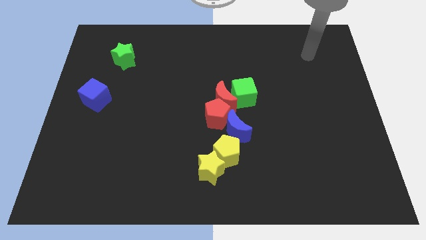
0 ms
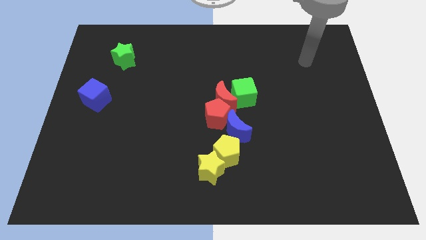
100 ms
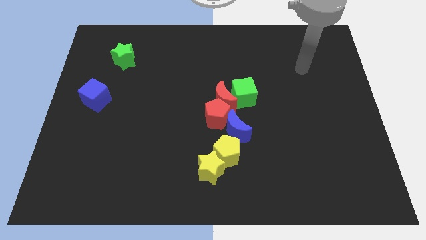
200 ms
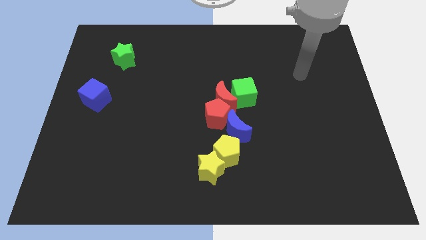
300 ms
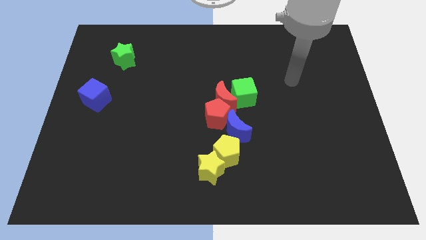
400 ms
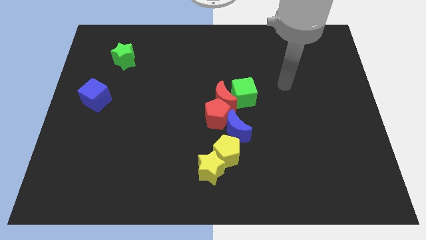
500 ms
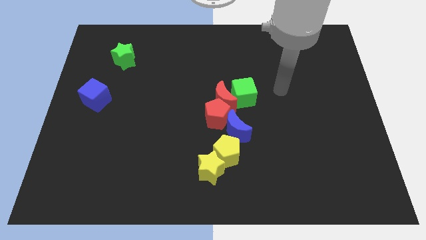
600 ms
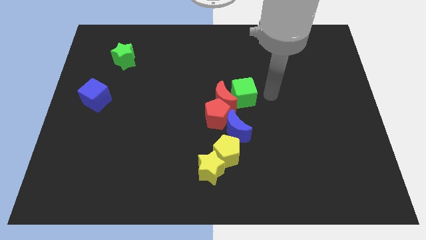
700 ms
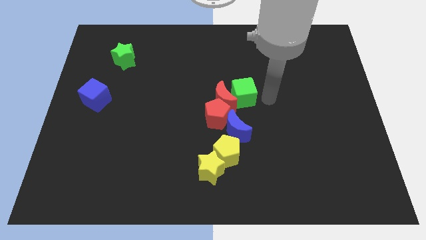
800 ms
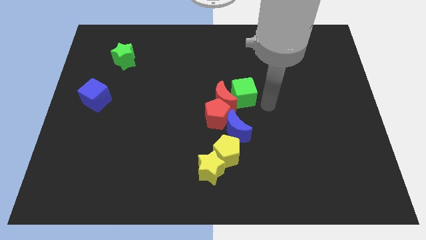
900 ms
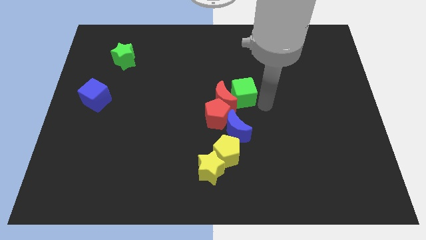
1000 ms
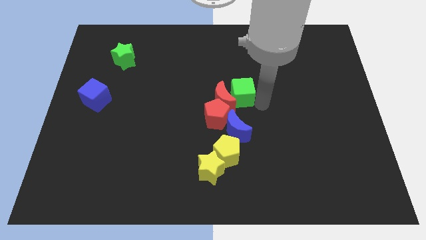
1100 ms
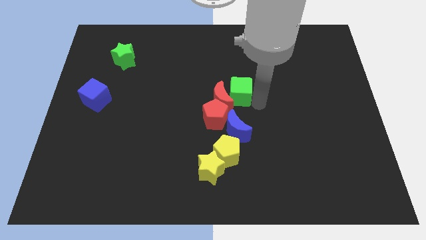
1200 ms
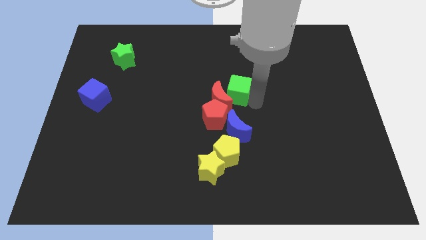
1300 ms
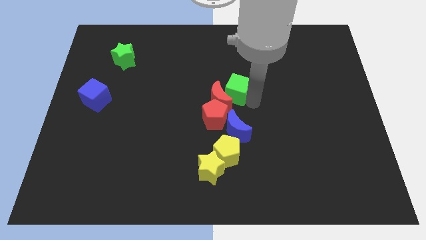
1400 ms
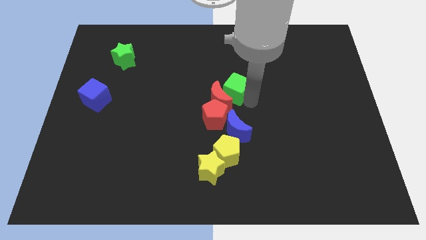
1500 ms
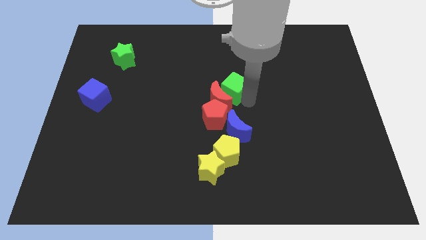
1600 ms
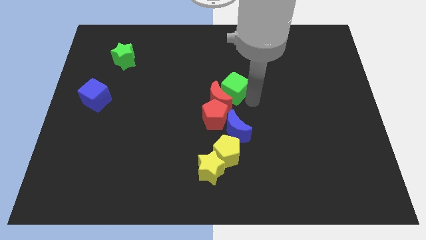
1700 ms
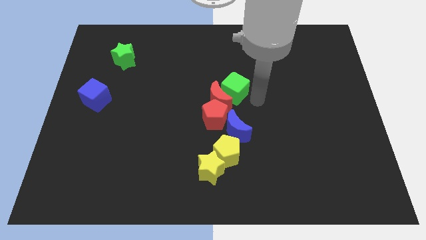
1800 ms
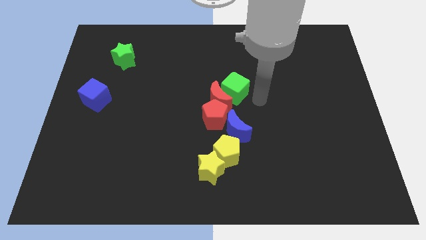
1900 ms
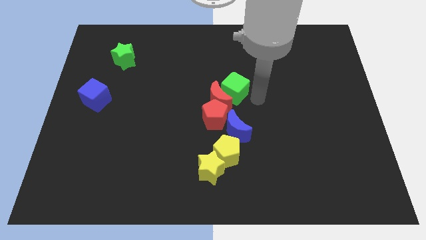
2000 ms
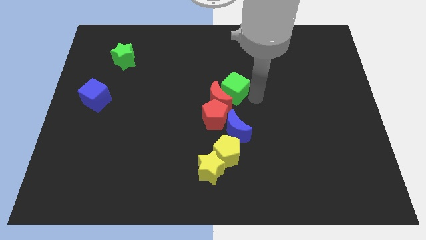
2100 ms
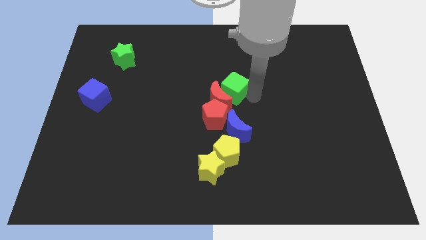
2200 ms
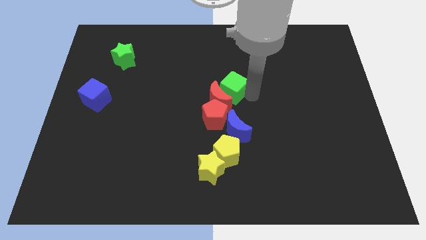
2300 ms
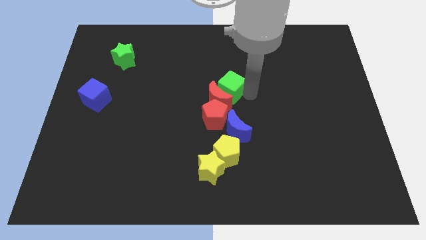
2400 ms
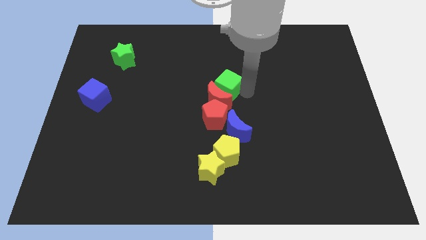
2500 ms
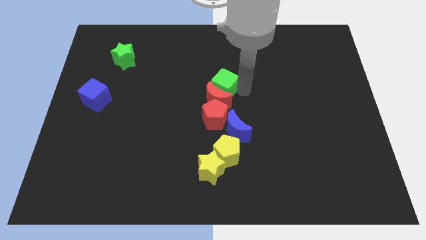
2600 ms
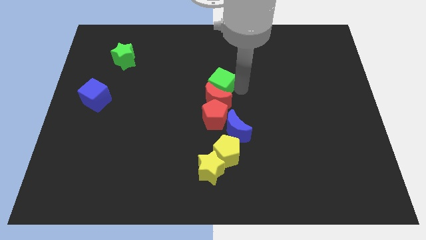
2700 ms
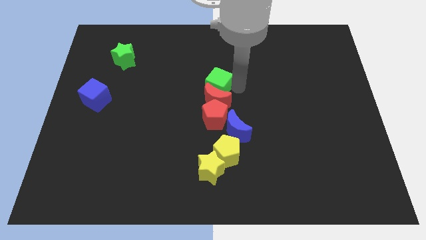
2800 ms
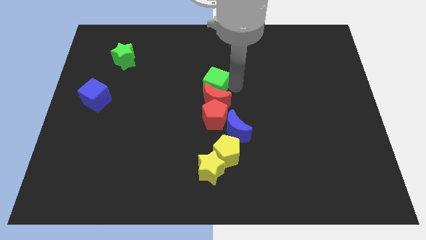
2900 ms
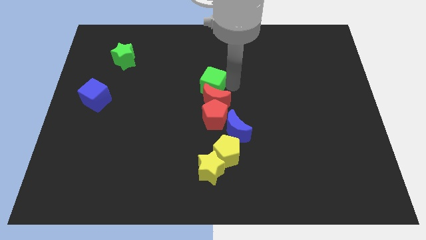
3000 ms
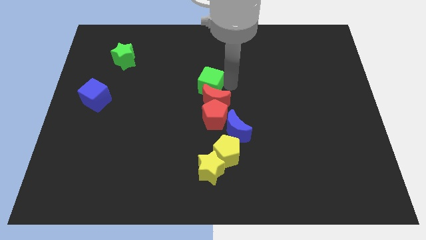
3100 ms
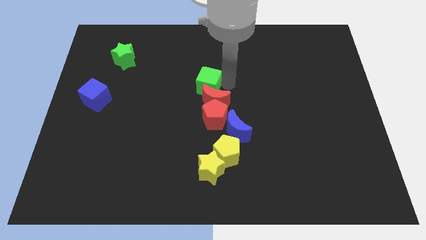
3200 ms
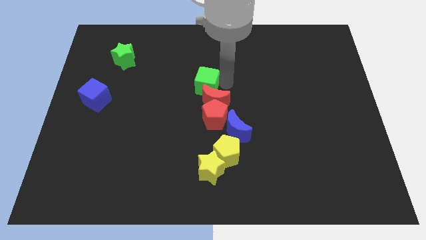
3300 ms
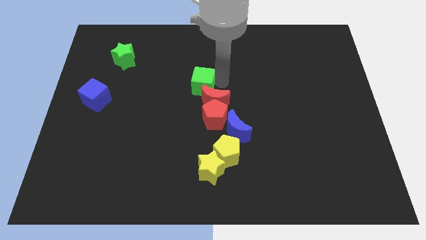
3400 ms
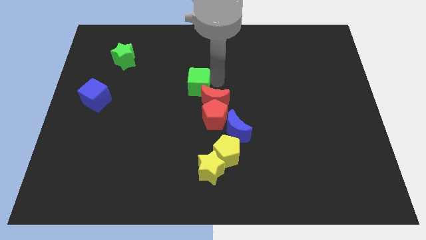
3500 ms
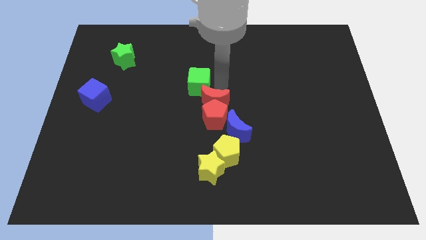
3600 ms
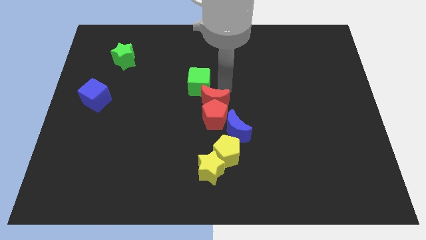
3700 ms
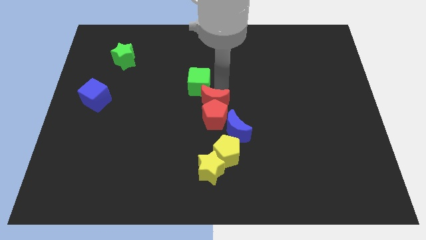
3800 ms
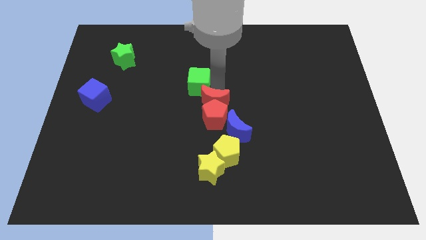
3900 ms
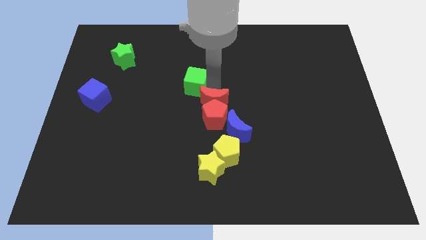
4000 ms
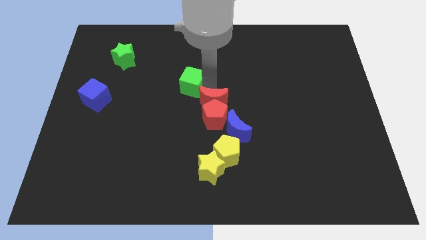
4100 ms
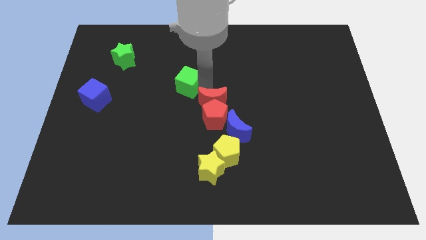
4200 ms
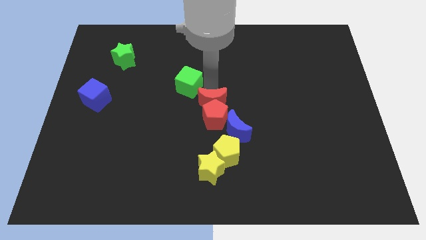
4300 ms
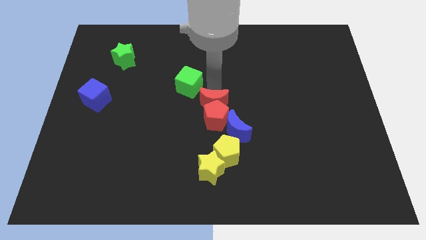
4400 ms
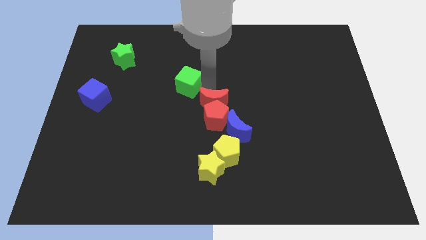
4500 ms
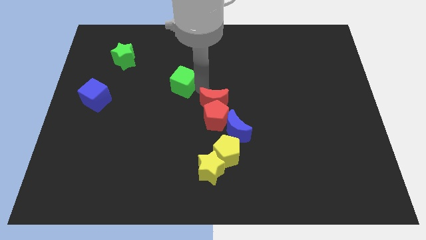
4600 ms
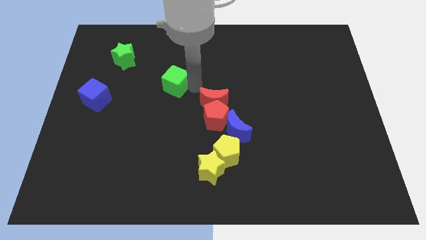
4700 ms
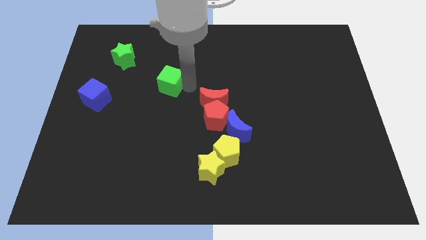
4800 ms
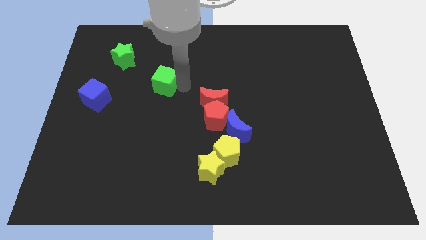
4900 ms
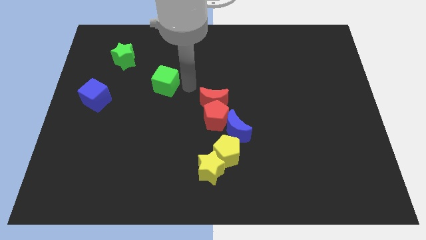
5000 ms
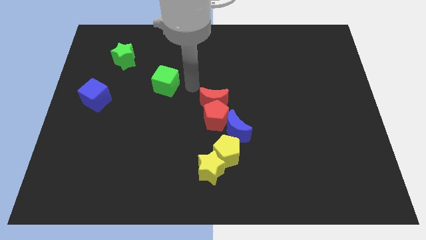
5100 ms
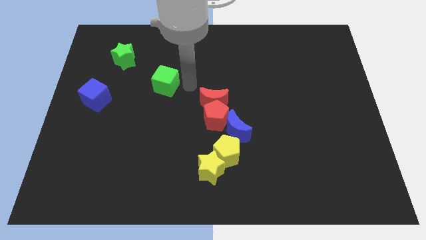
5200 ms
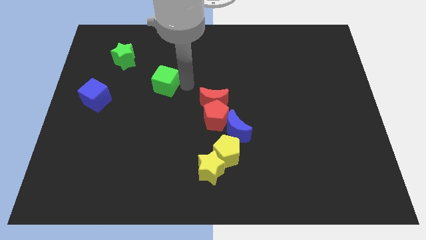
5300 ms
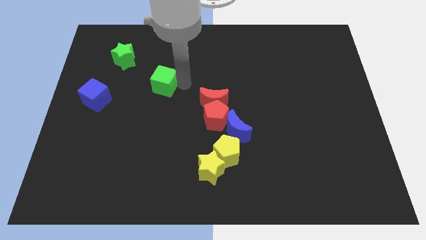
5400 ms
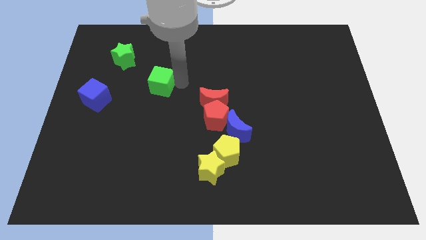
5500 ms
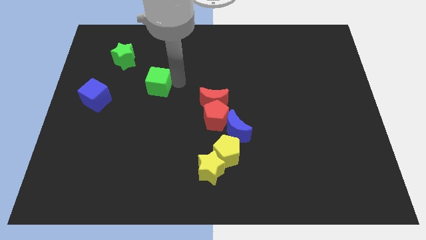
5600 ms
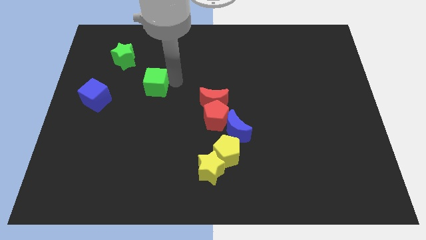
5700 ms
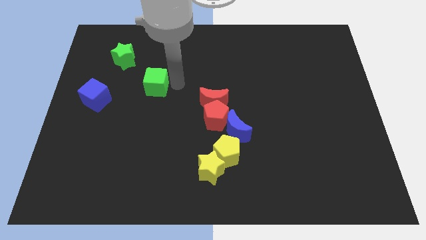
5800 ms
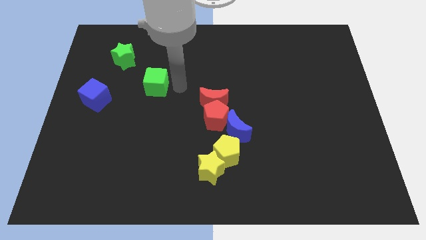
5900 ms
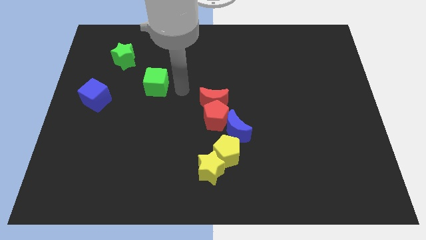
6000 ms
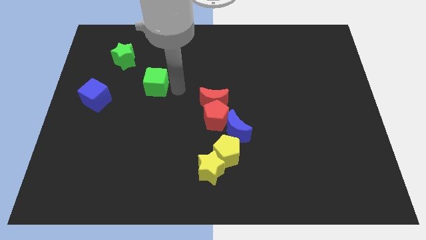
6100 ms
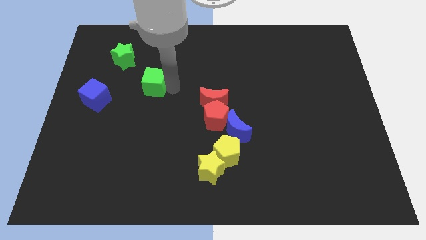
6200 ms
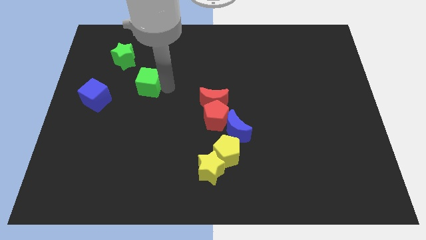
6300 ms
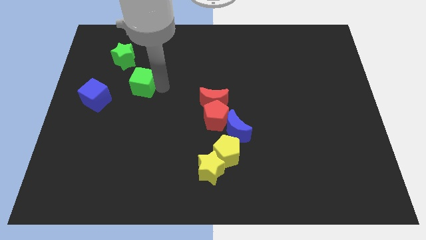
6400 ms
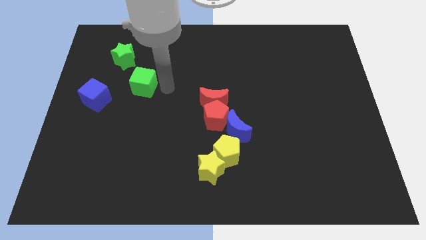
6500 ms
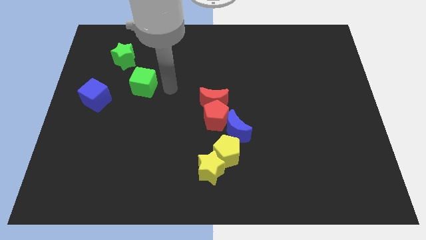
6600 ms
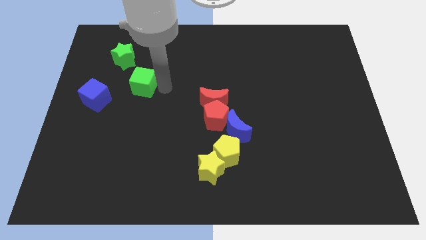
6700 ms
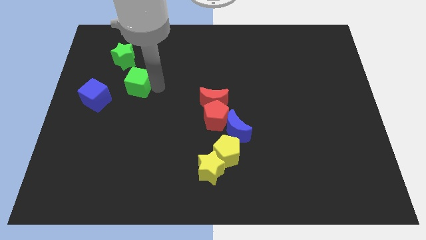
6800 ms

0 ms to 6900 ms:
put the green cube diagonally up and to the right of the blue cube

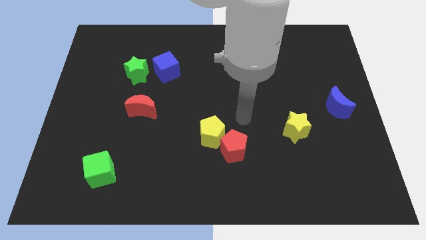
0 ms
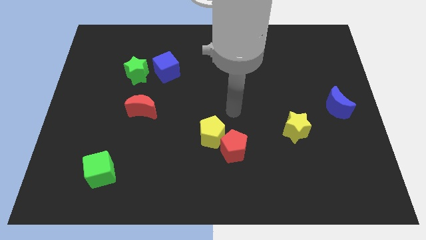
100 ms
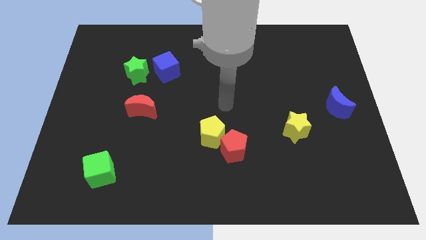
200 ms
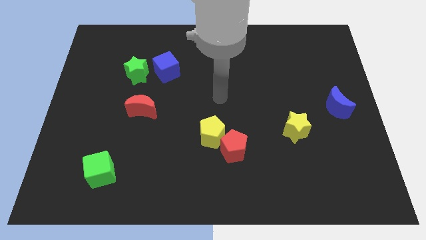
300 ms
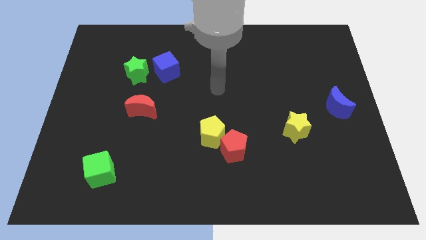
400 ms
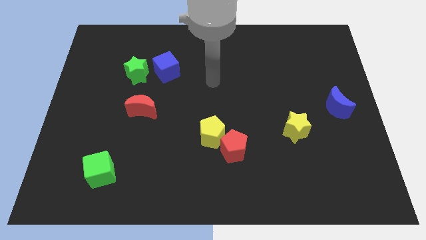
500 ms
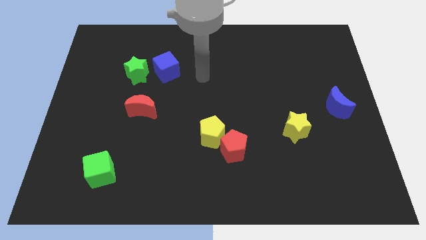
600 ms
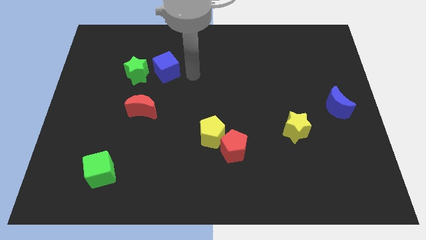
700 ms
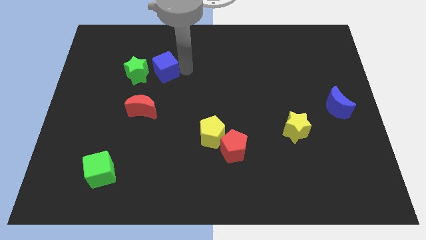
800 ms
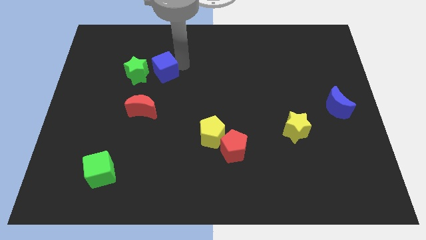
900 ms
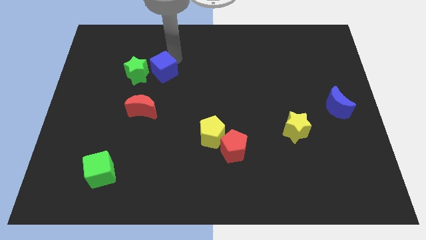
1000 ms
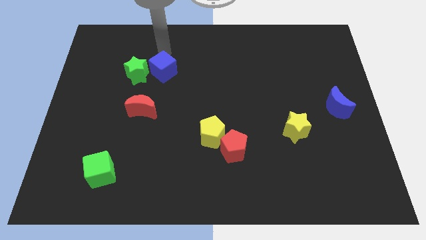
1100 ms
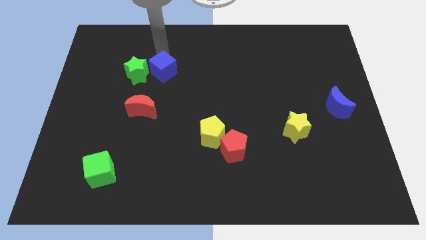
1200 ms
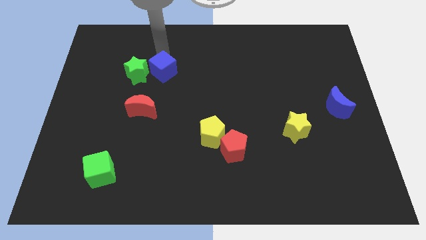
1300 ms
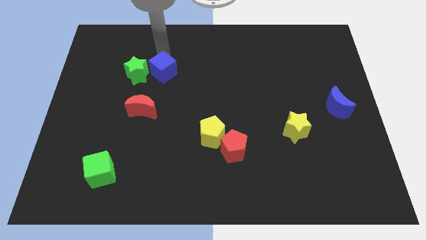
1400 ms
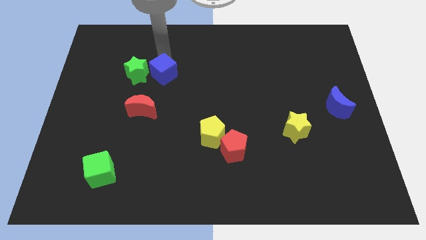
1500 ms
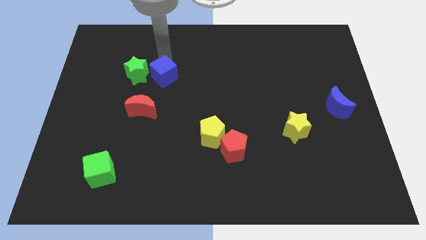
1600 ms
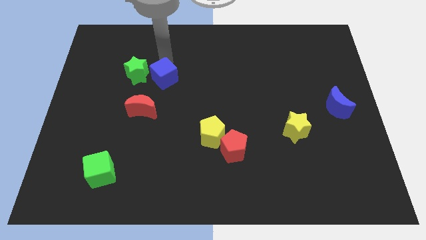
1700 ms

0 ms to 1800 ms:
put the blue cube diagonally up and to the right of the red moon
